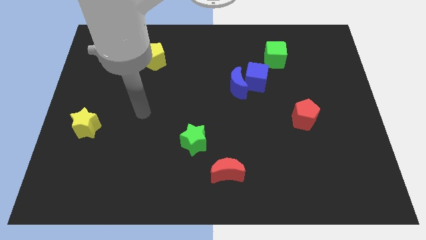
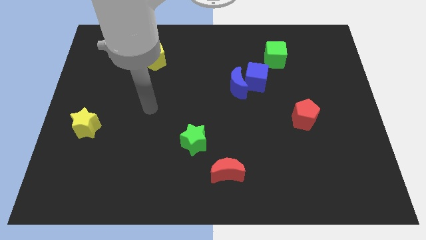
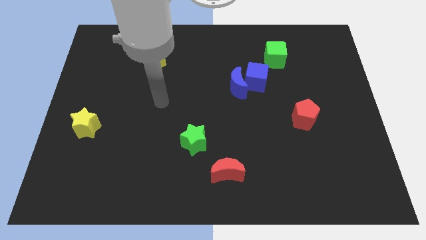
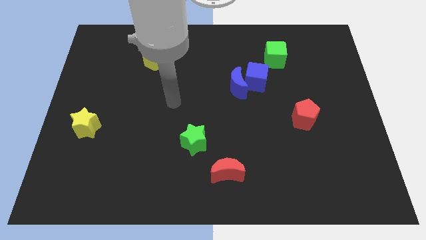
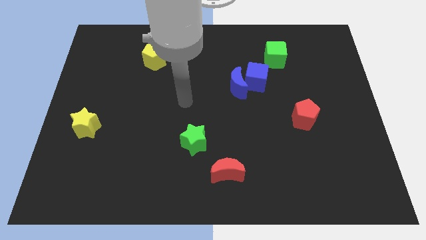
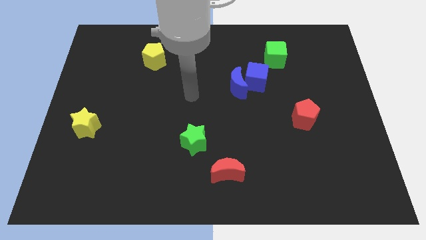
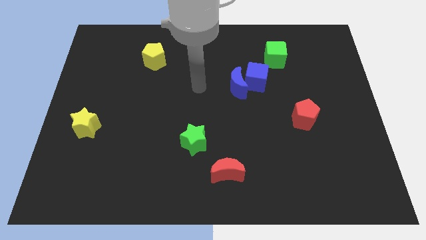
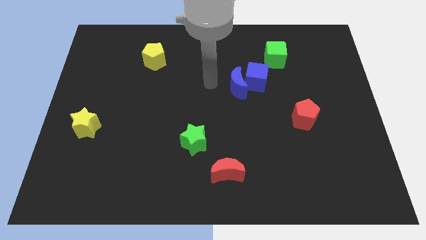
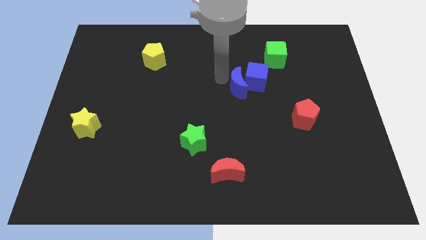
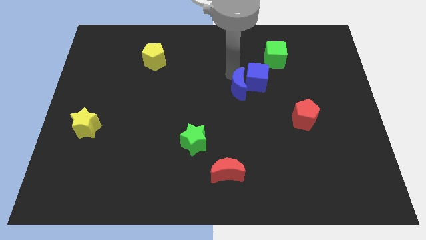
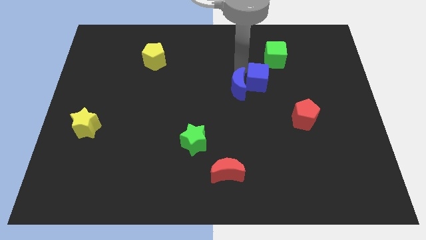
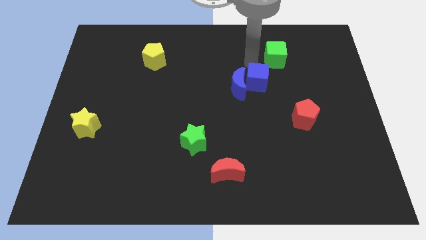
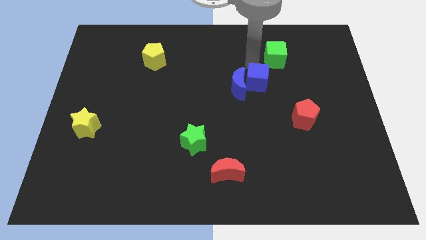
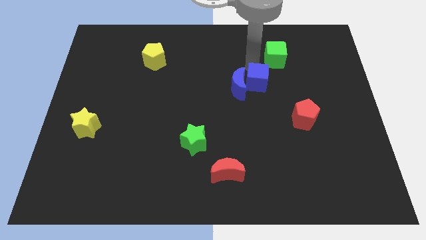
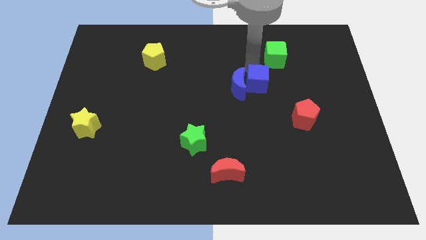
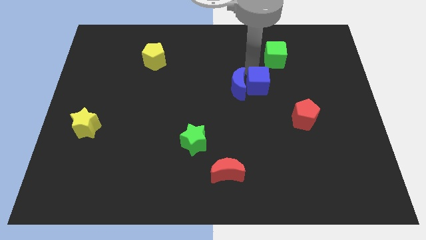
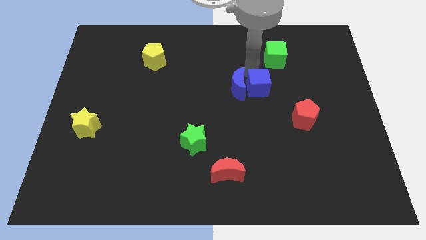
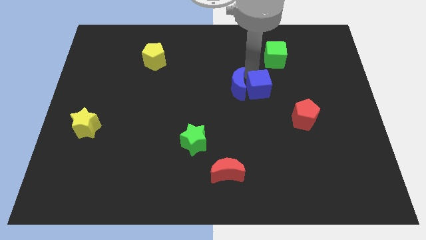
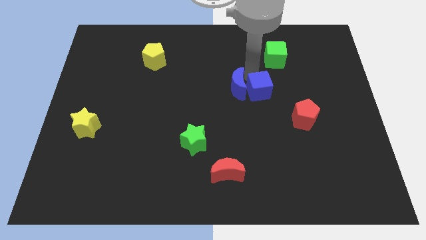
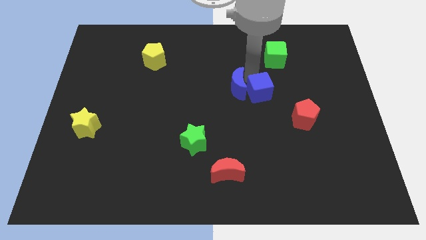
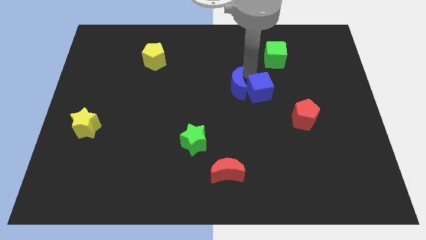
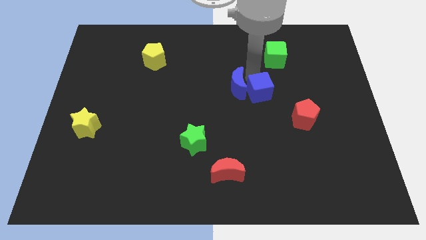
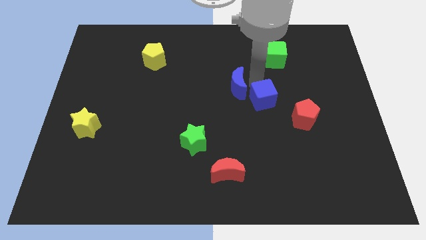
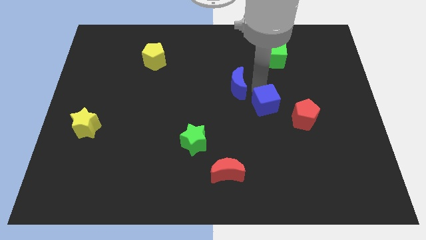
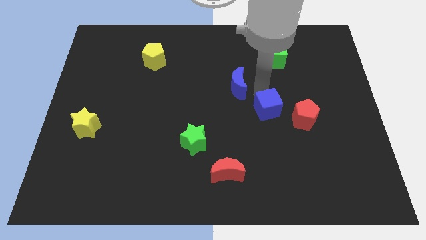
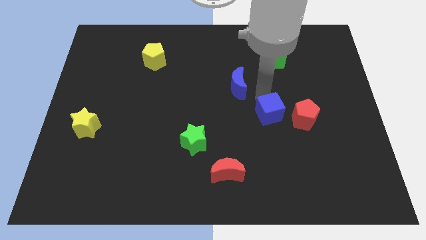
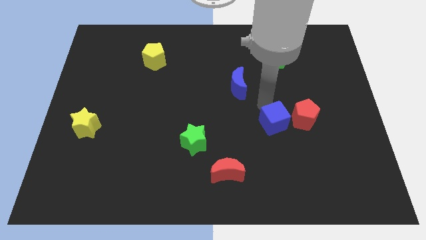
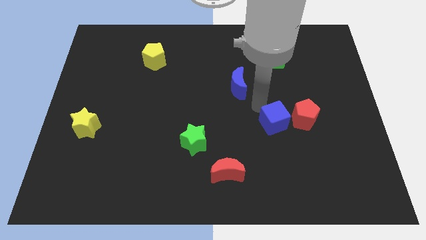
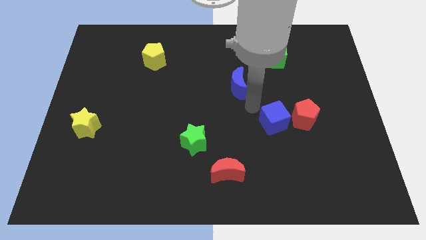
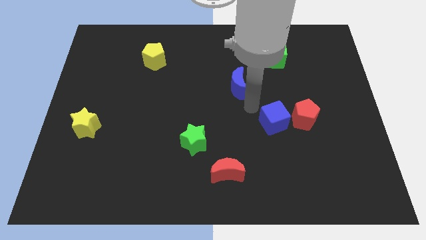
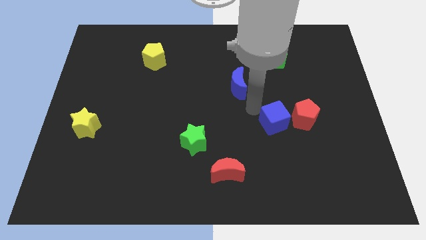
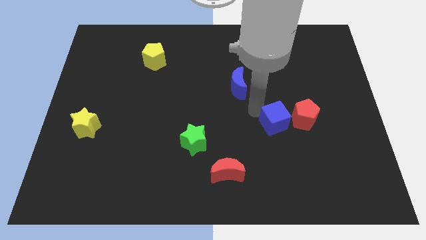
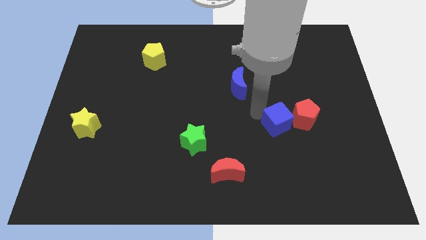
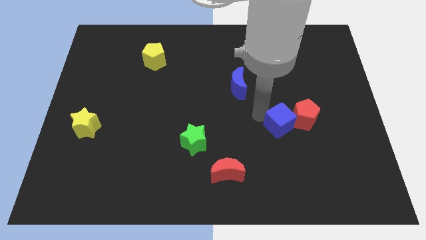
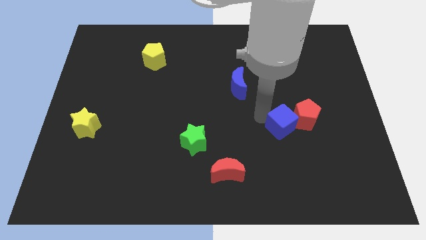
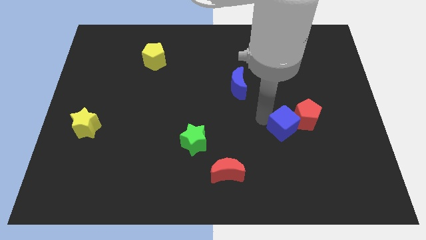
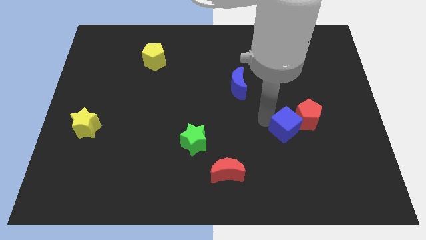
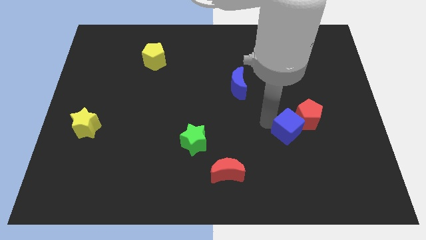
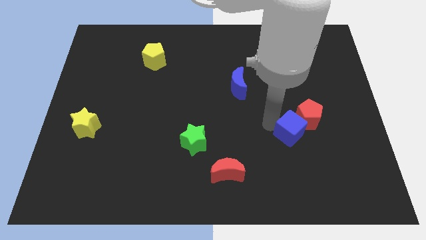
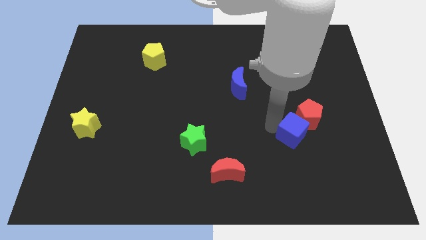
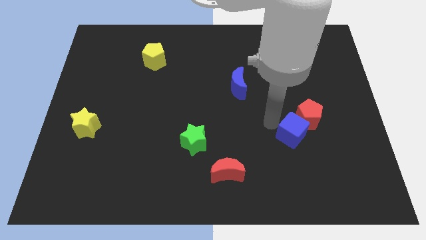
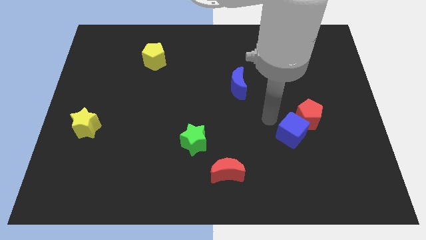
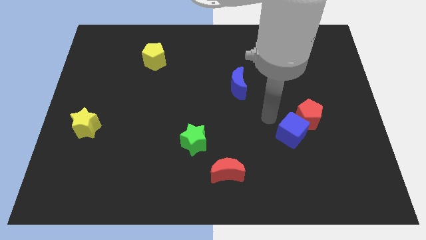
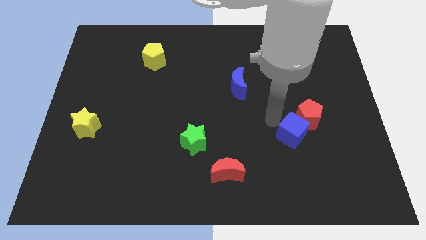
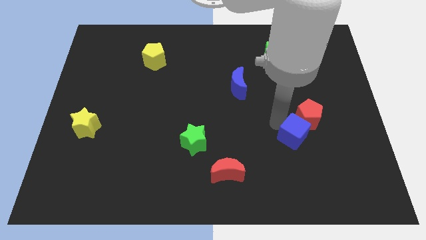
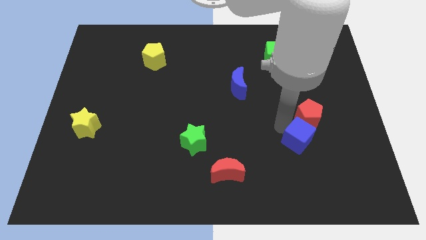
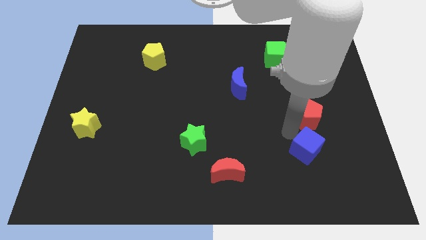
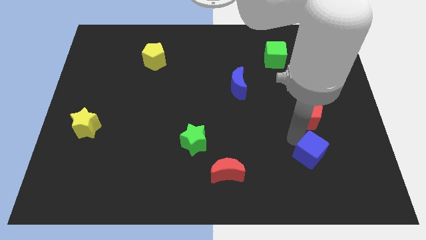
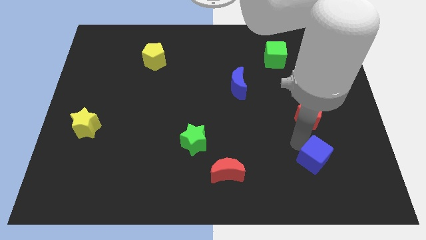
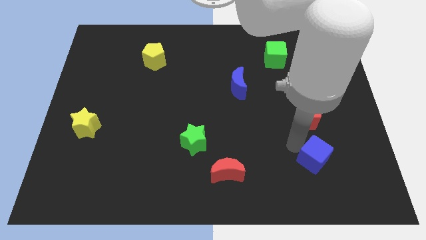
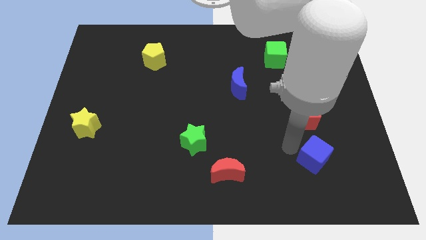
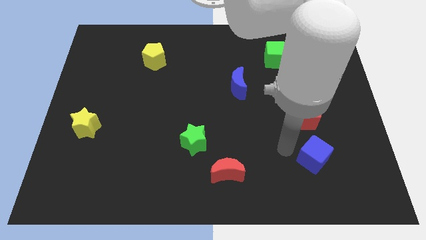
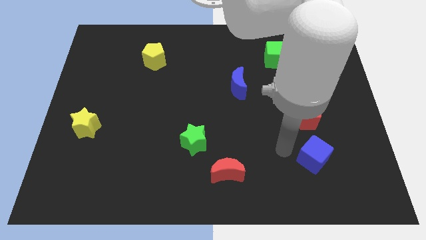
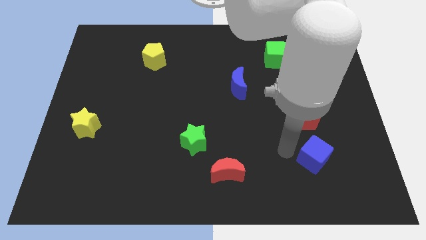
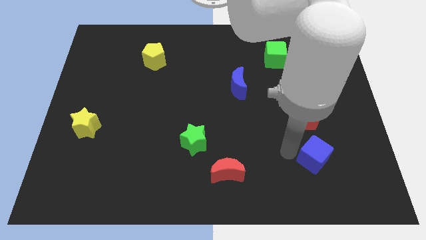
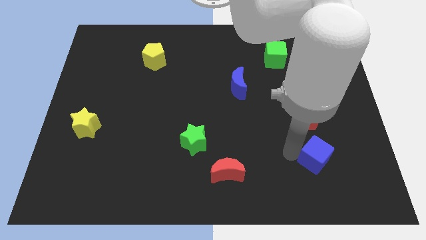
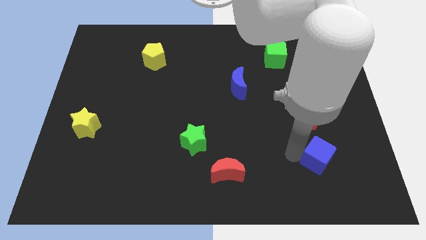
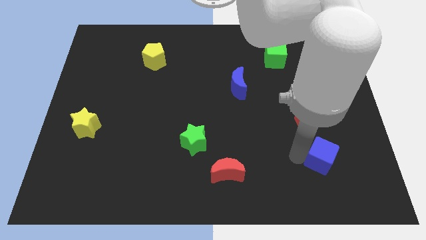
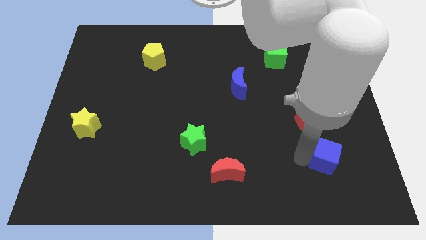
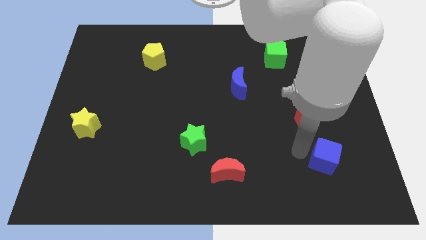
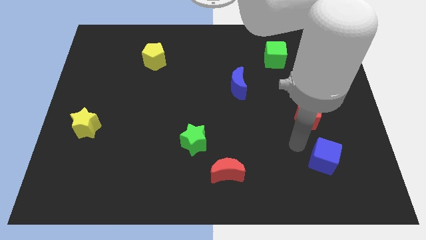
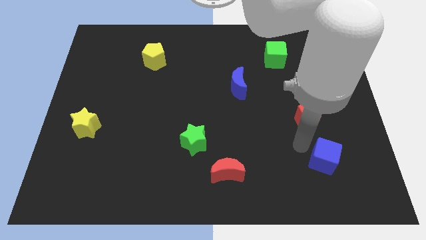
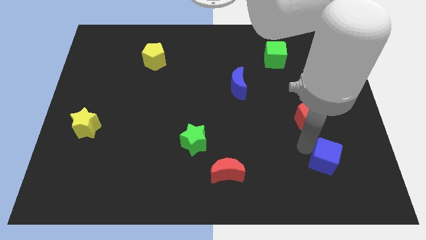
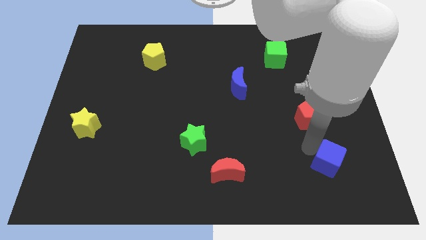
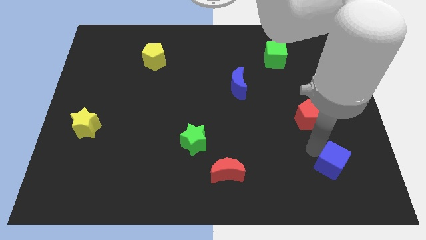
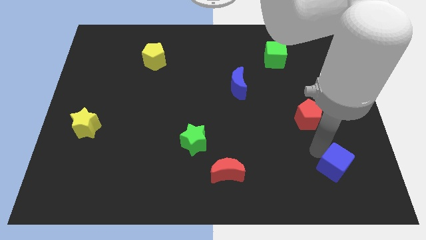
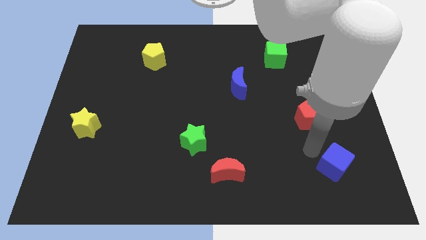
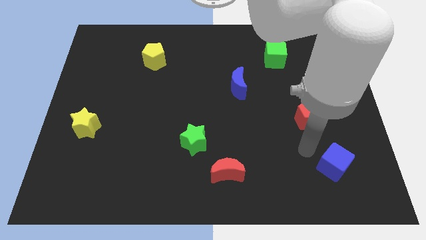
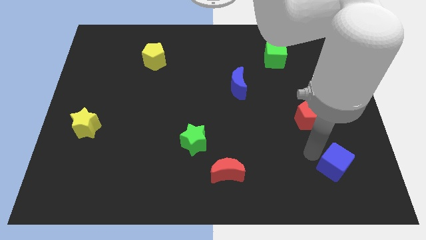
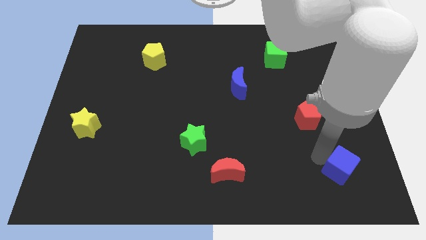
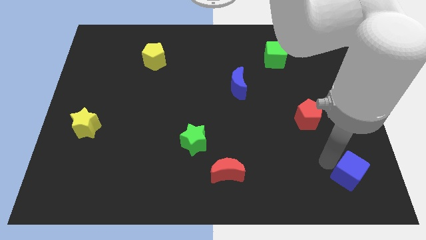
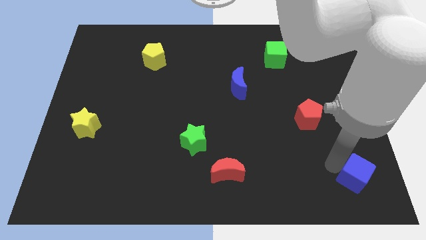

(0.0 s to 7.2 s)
push the blue cube to the lower right corner

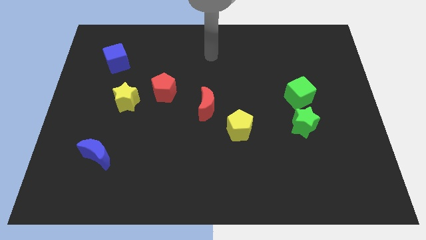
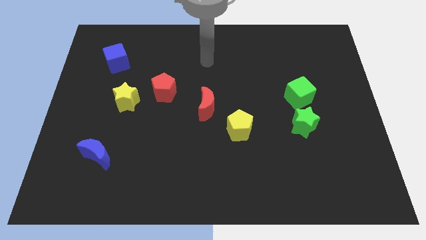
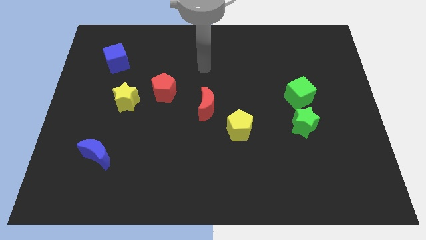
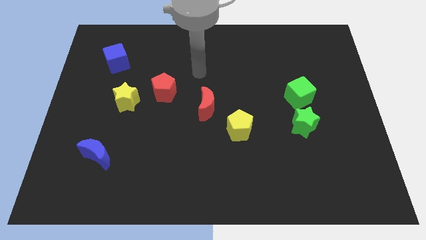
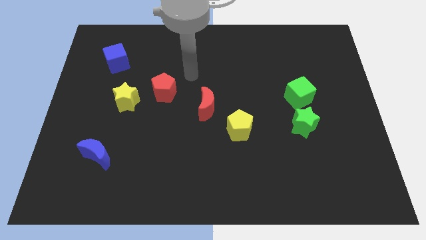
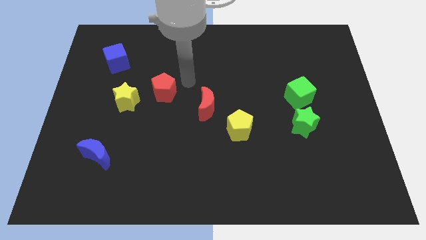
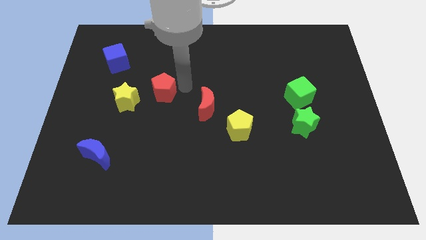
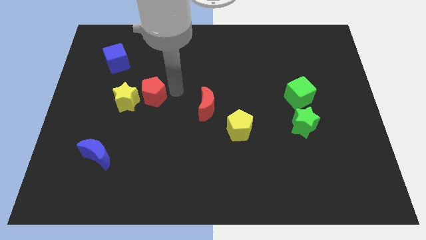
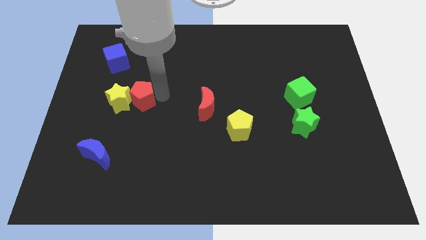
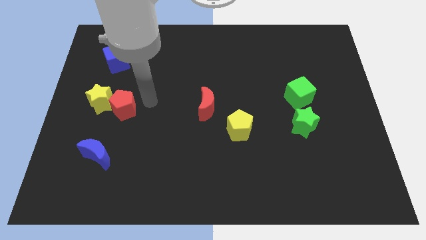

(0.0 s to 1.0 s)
move the yellow star to the left side of the board
